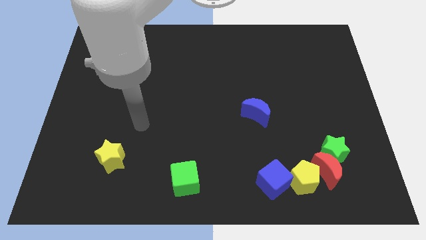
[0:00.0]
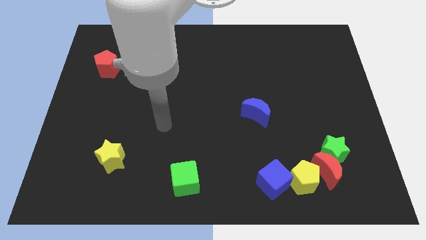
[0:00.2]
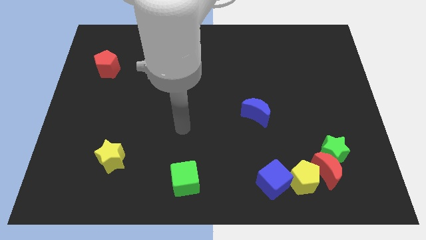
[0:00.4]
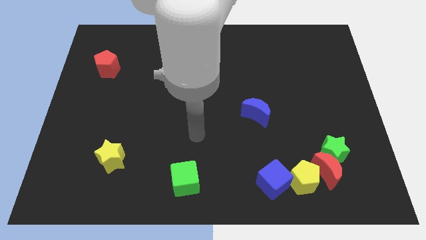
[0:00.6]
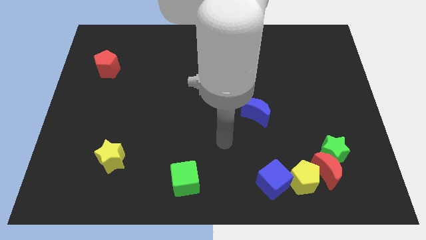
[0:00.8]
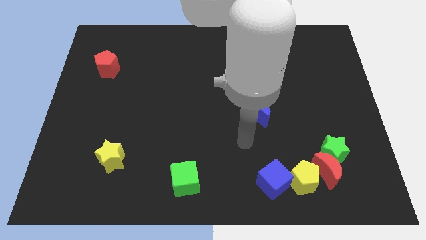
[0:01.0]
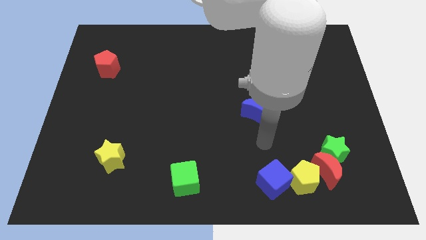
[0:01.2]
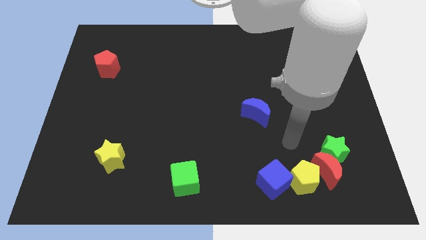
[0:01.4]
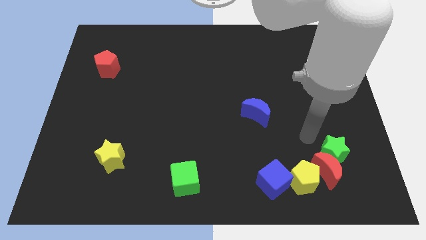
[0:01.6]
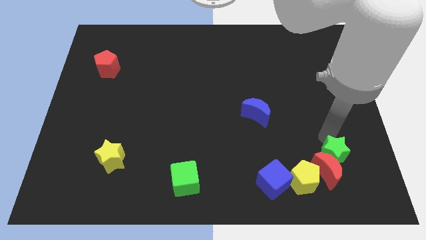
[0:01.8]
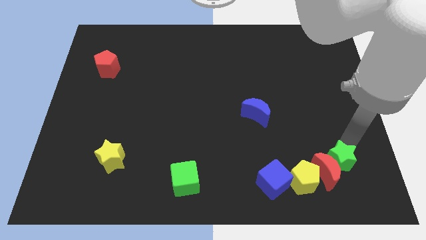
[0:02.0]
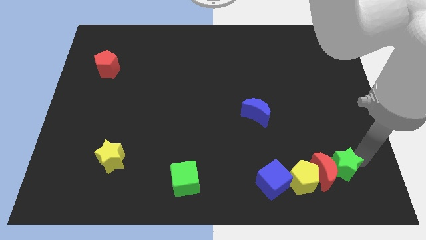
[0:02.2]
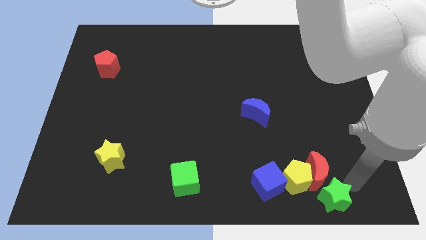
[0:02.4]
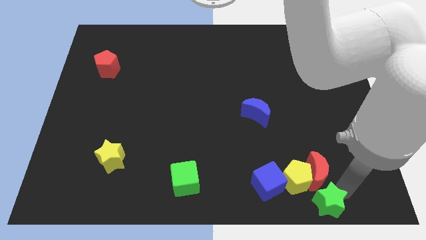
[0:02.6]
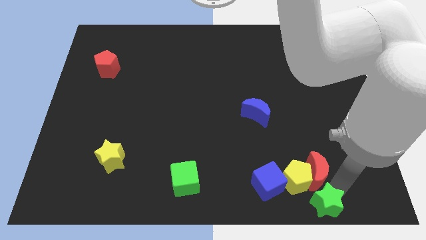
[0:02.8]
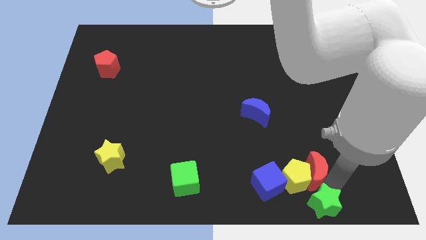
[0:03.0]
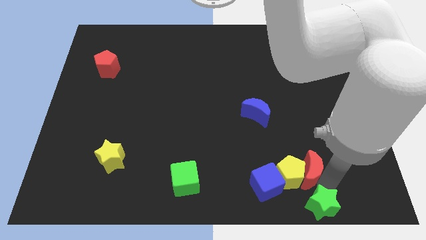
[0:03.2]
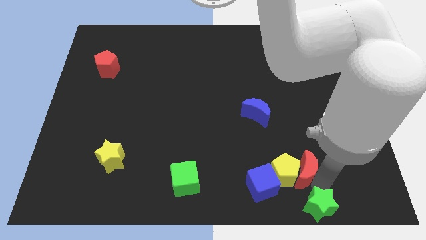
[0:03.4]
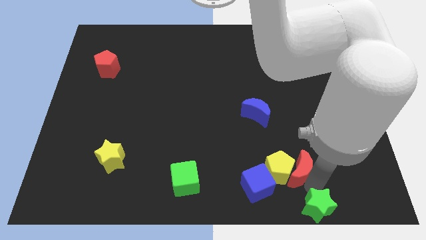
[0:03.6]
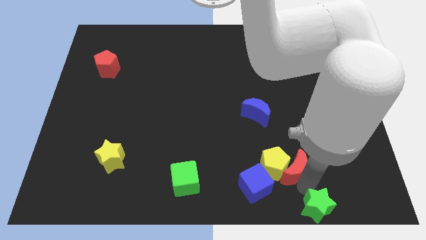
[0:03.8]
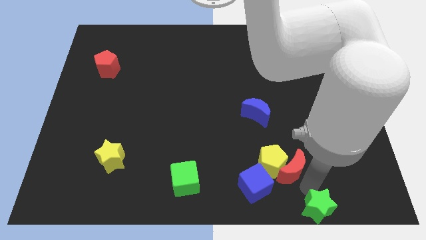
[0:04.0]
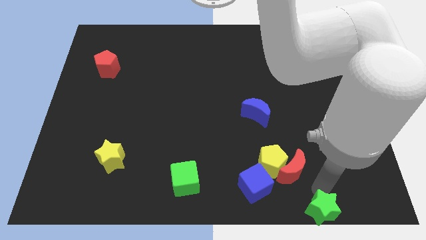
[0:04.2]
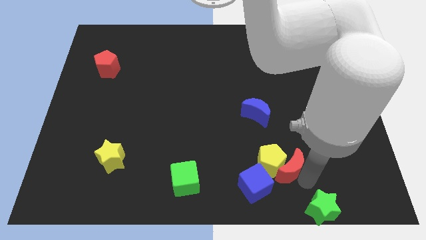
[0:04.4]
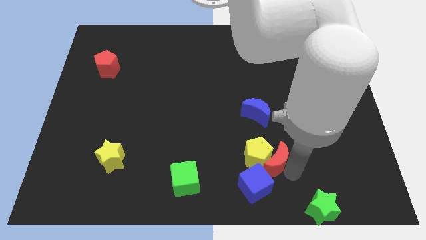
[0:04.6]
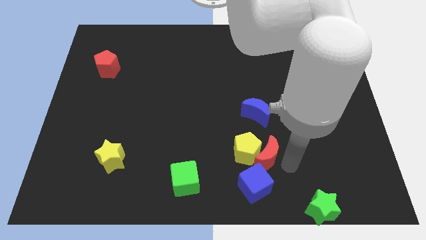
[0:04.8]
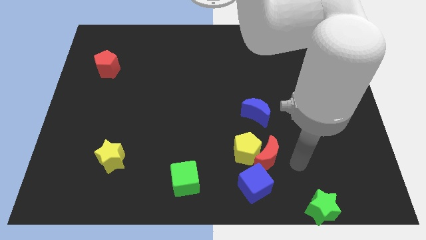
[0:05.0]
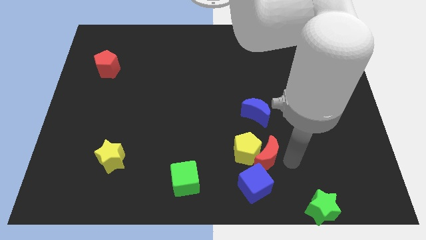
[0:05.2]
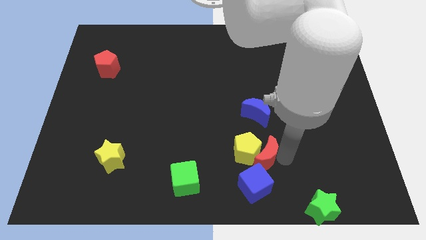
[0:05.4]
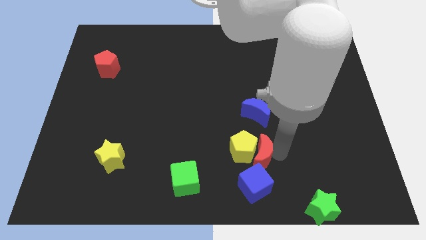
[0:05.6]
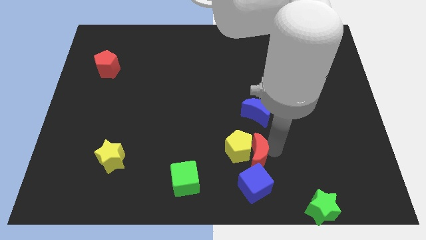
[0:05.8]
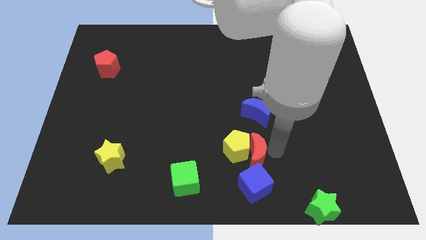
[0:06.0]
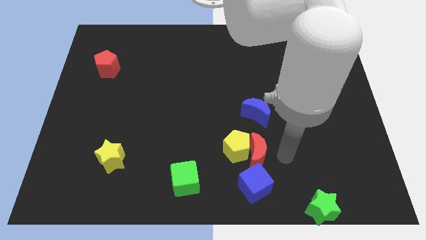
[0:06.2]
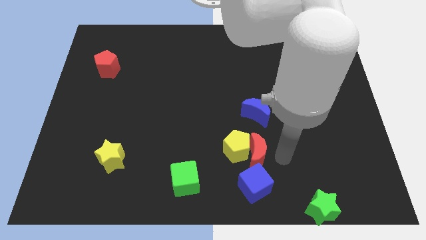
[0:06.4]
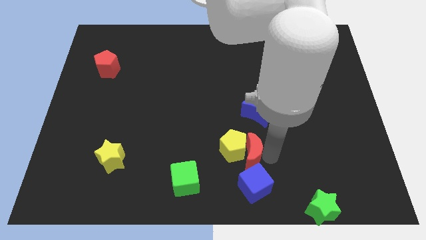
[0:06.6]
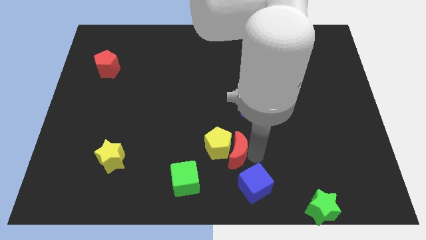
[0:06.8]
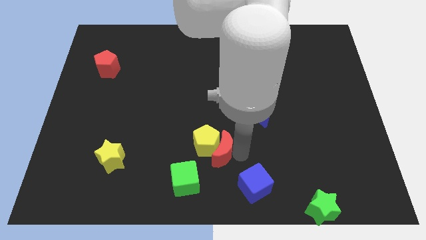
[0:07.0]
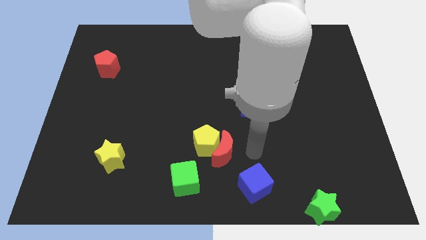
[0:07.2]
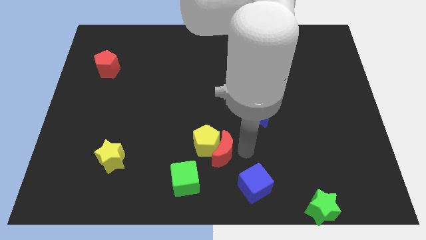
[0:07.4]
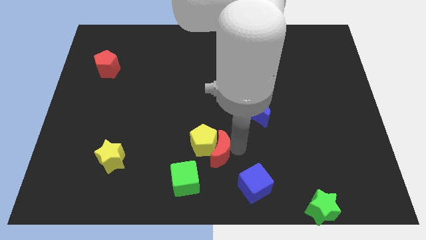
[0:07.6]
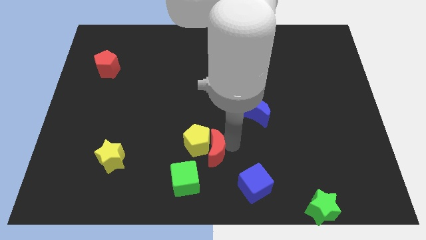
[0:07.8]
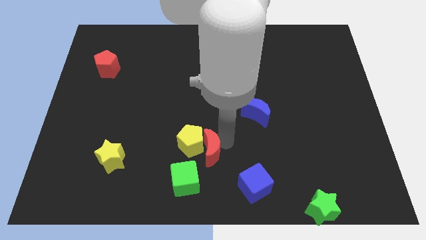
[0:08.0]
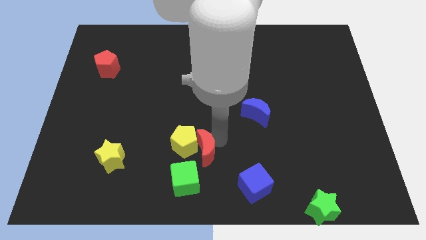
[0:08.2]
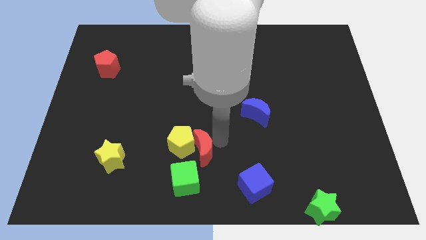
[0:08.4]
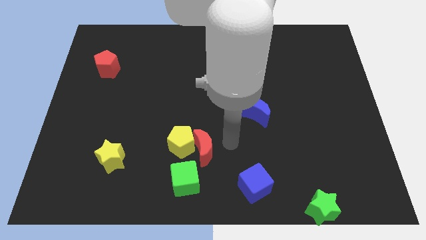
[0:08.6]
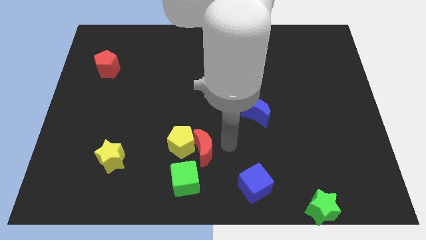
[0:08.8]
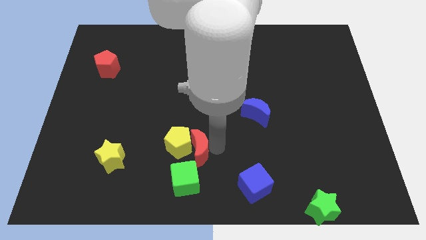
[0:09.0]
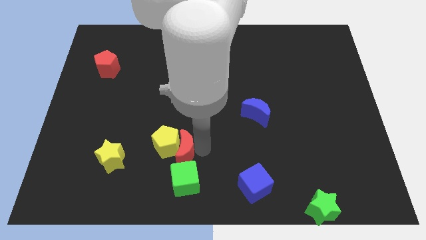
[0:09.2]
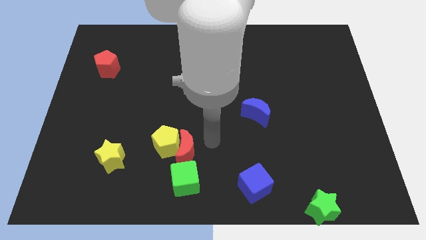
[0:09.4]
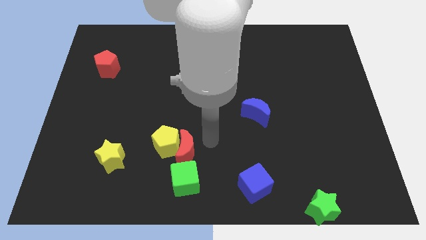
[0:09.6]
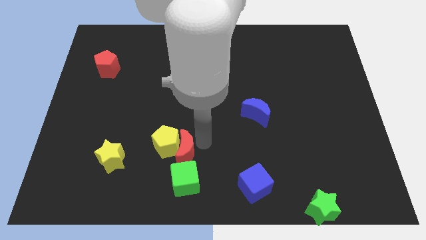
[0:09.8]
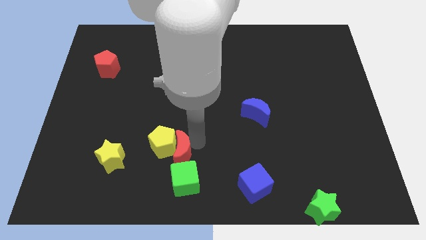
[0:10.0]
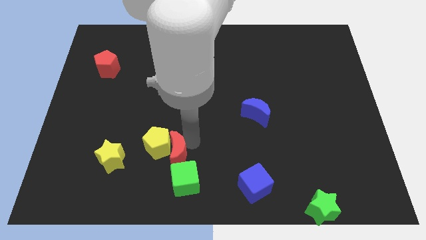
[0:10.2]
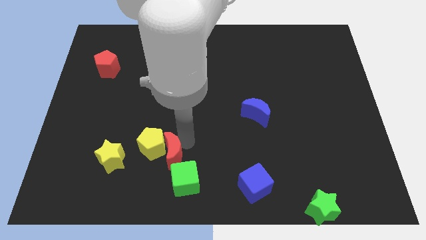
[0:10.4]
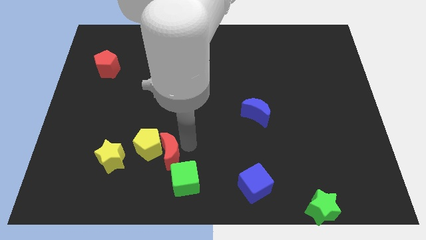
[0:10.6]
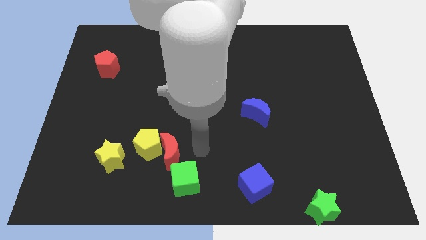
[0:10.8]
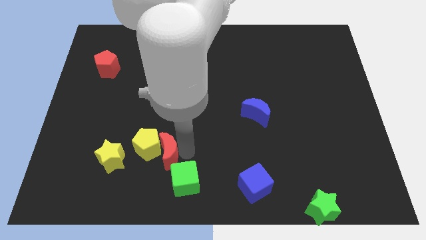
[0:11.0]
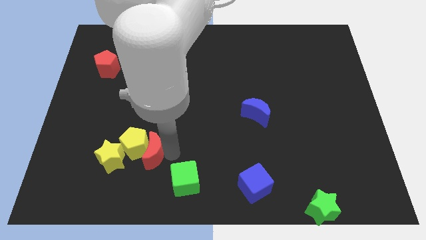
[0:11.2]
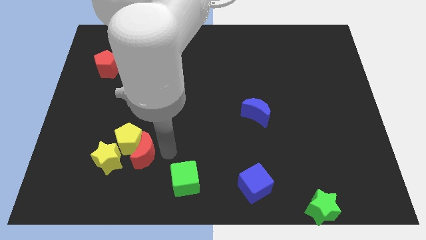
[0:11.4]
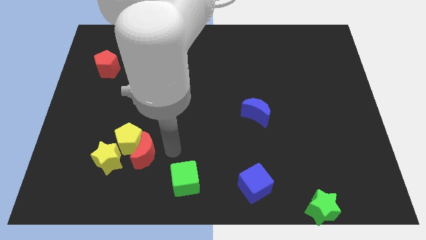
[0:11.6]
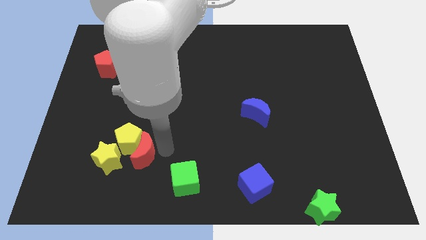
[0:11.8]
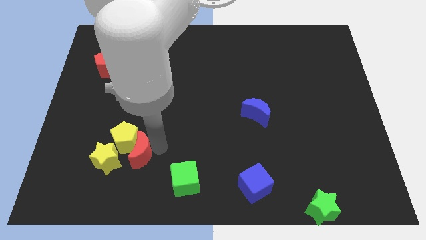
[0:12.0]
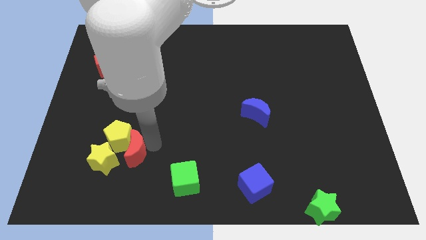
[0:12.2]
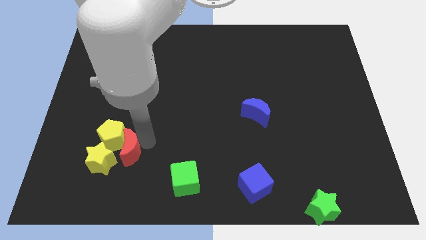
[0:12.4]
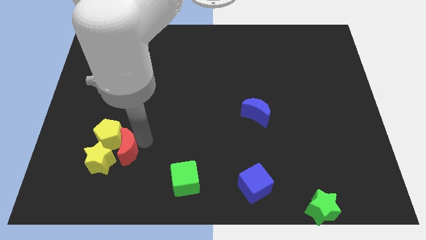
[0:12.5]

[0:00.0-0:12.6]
slide the red moon to the yellow star
